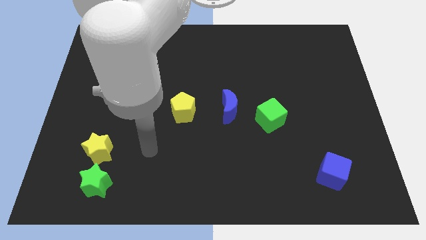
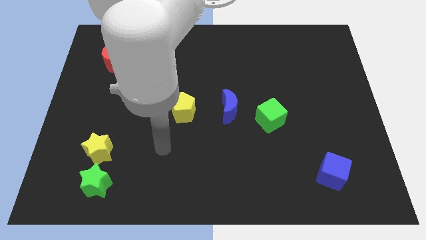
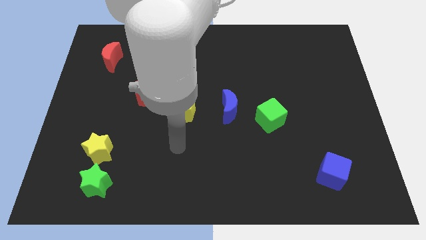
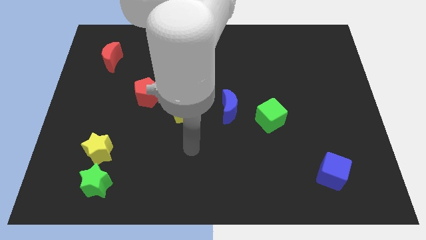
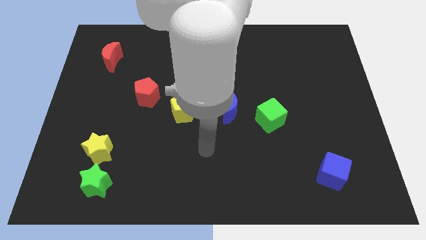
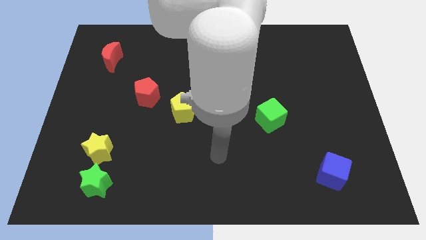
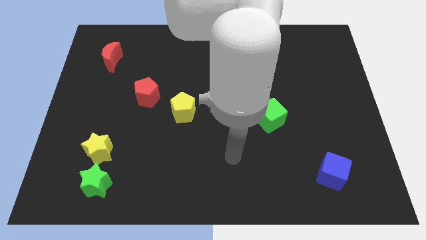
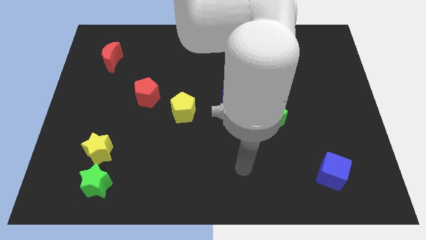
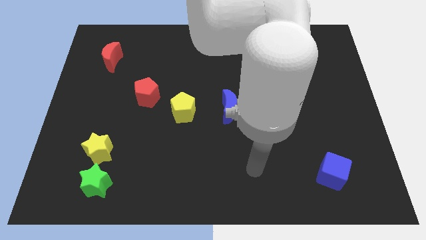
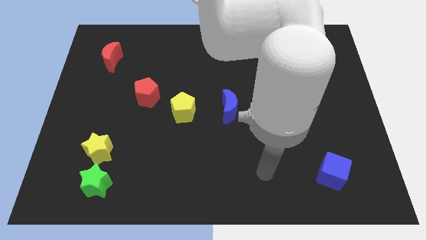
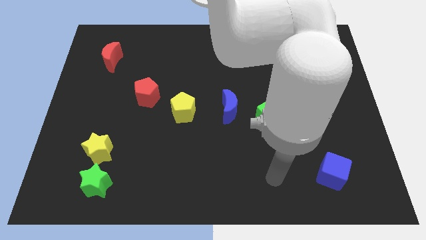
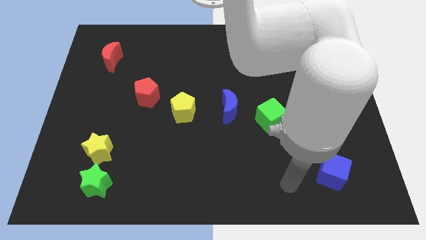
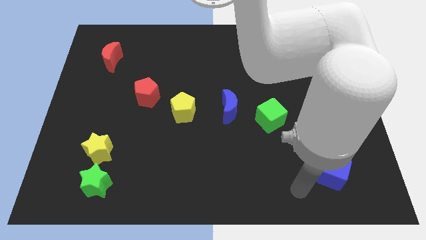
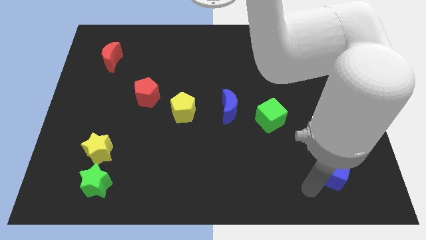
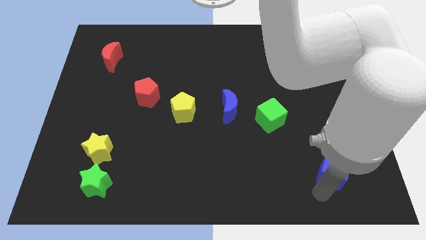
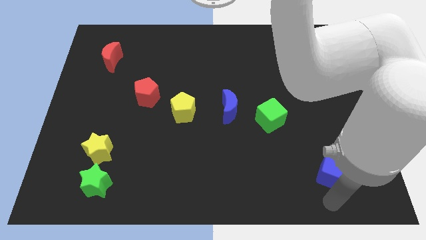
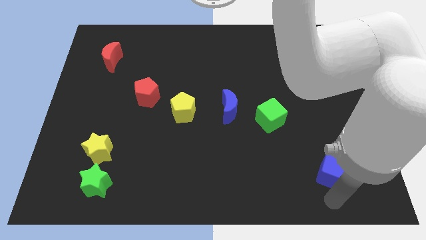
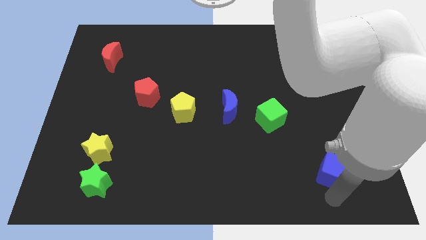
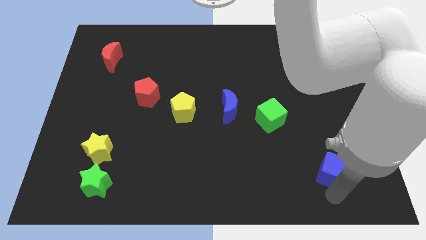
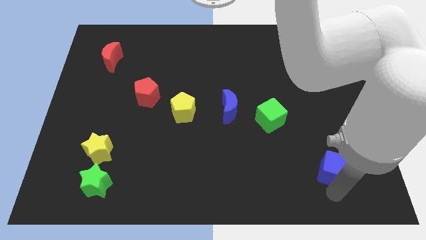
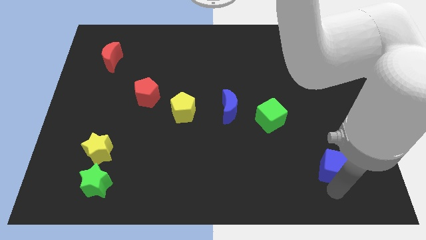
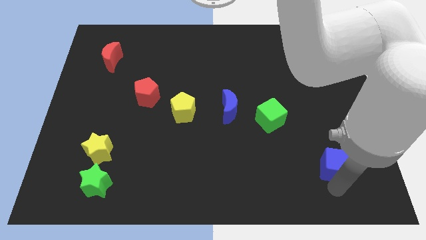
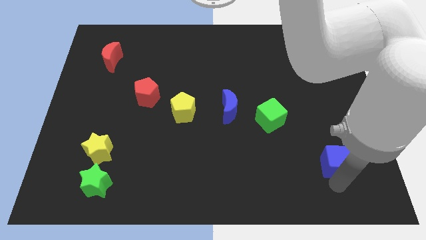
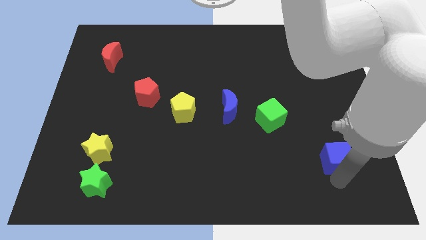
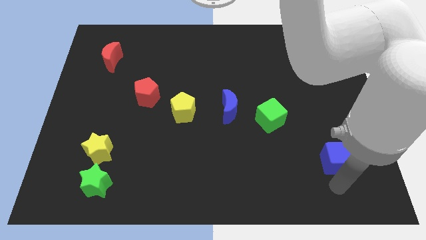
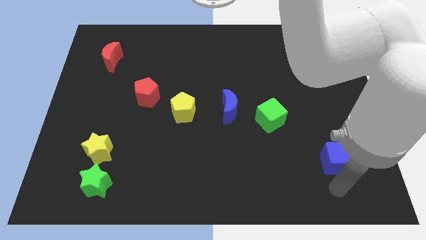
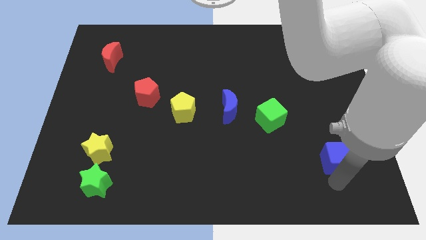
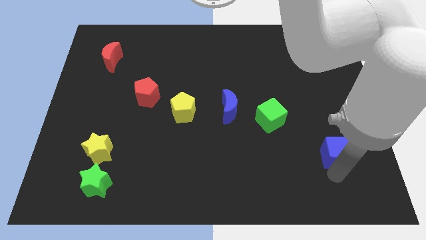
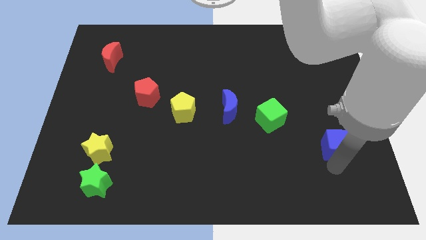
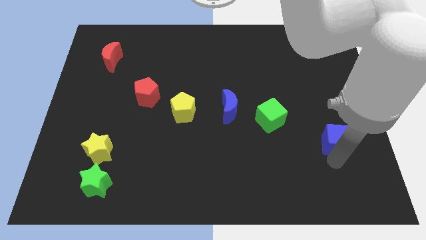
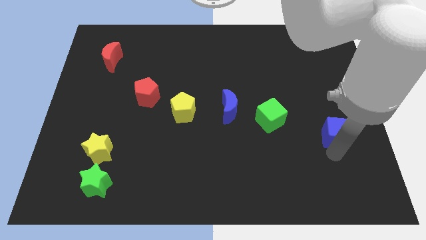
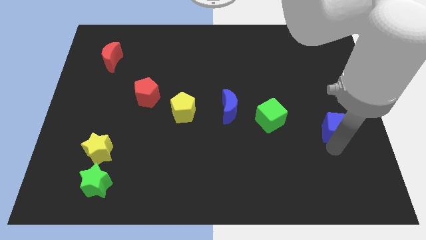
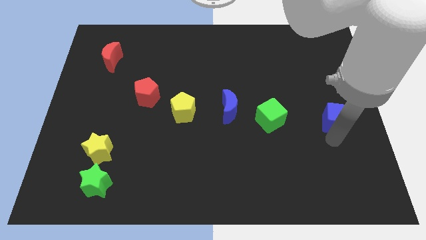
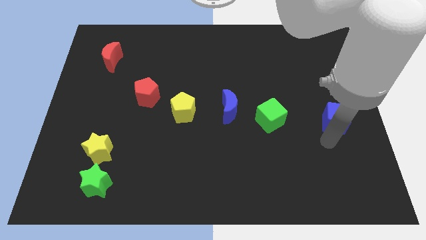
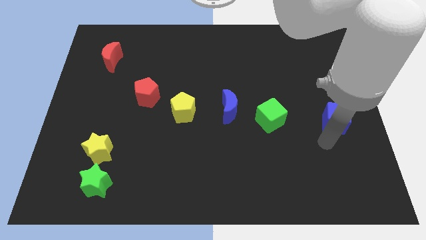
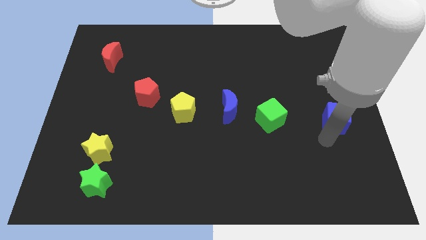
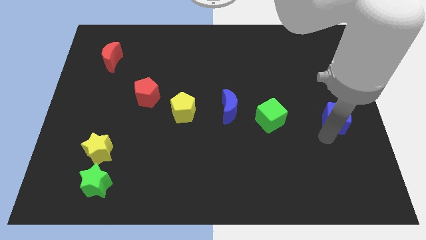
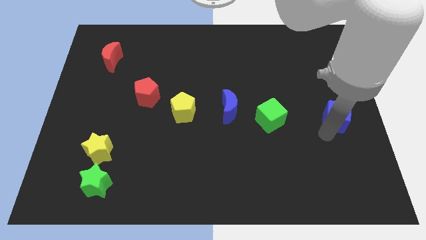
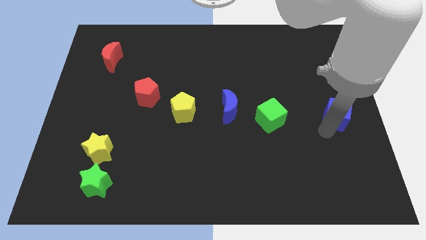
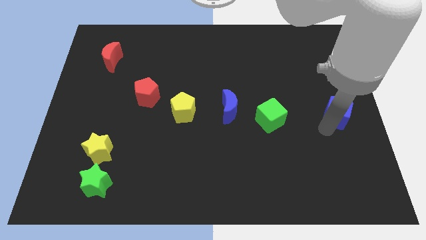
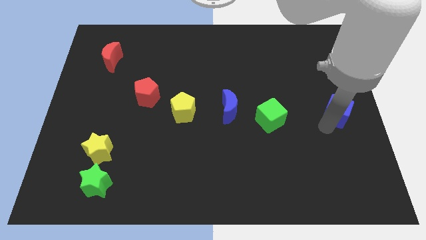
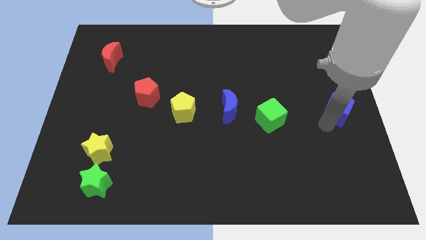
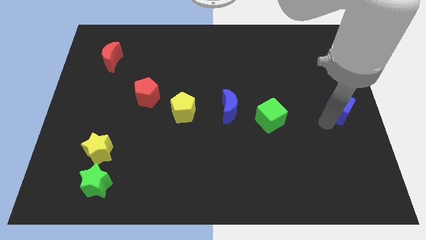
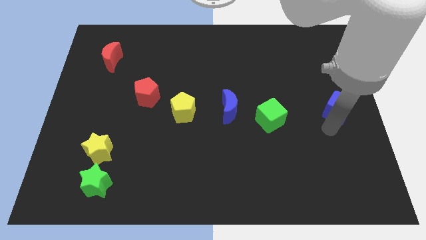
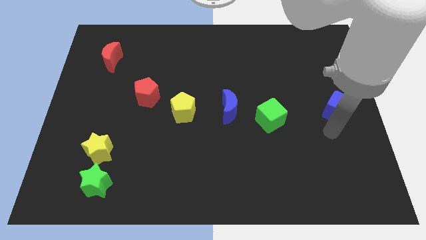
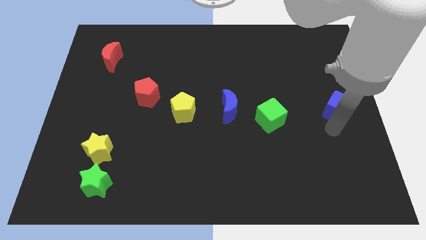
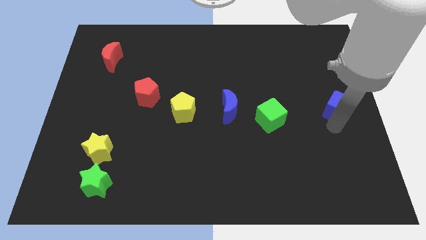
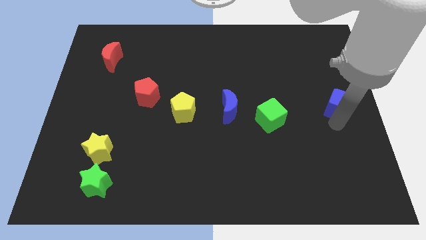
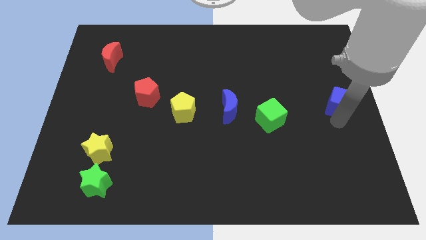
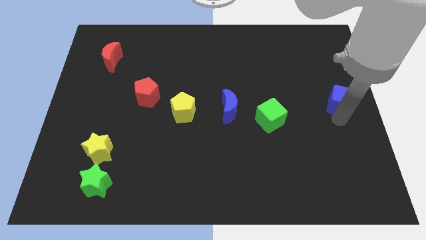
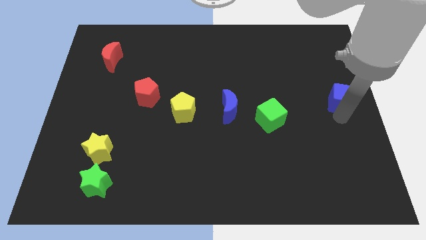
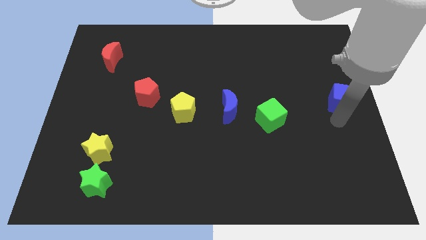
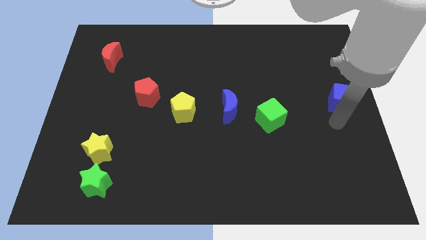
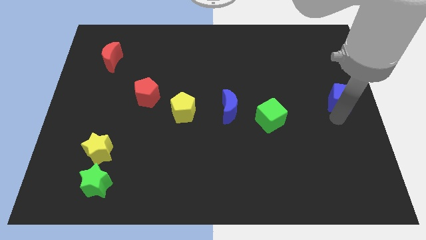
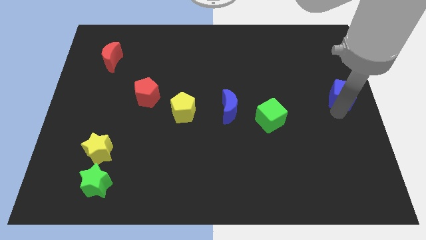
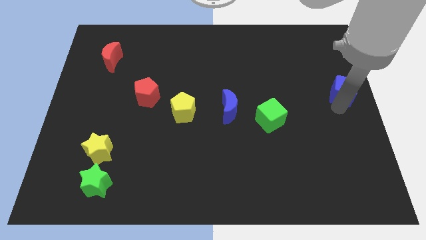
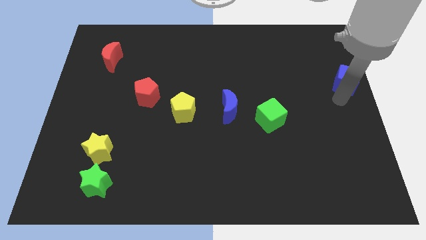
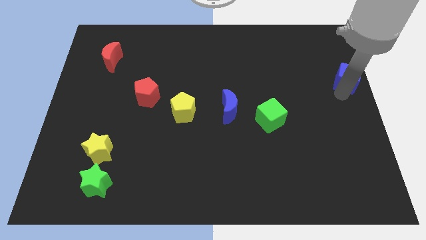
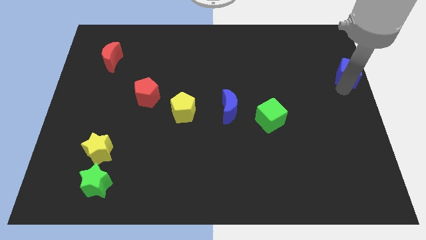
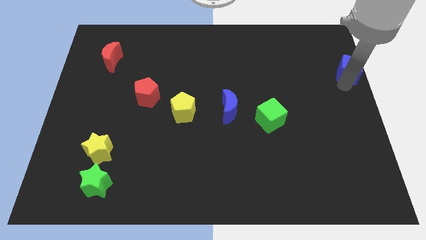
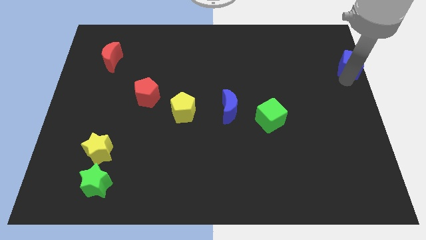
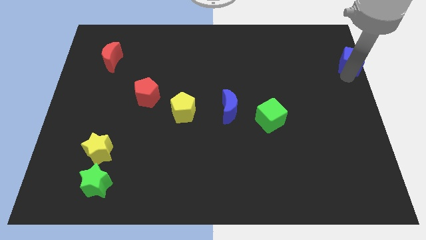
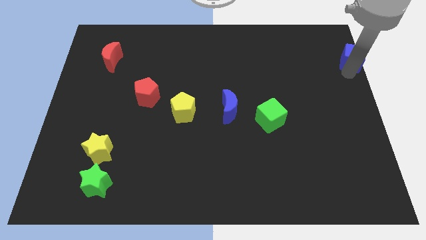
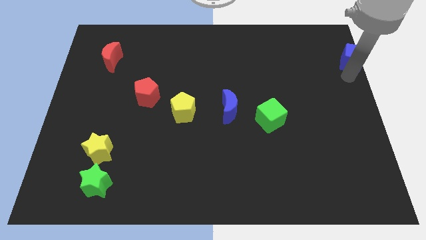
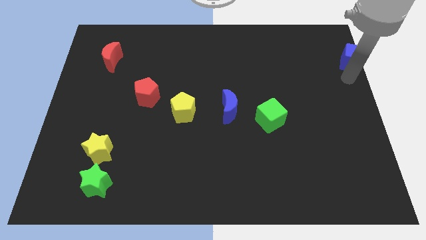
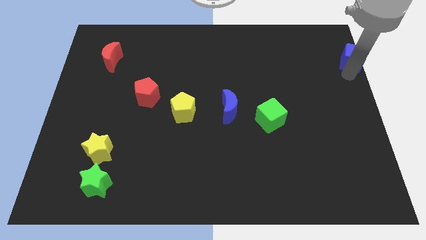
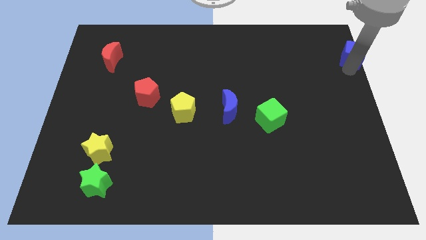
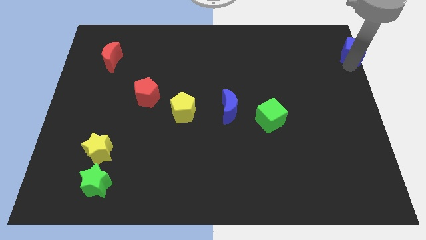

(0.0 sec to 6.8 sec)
slide the blue cube to the upper right corner
